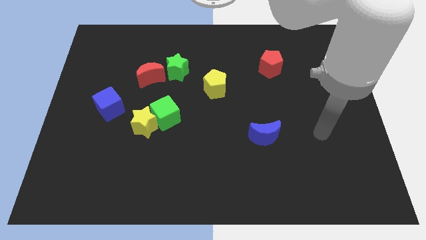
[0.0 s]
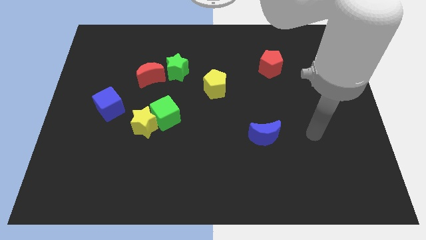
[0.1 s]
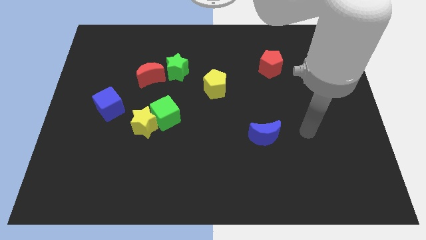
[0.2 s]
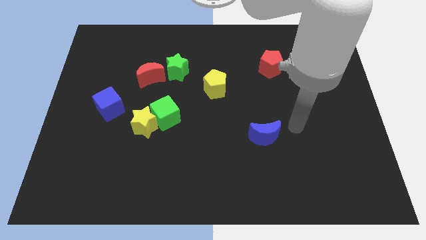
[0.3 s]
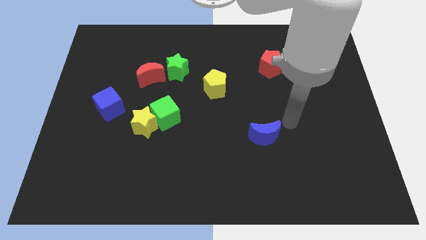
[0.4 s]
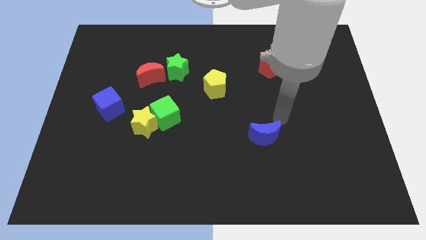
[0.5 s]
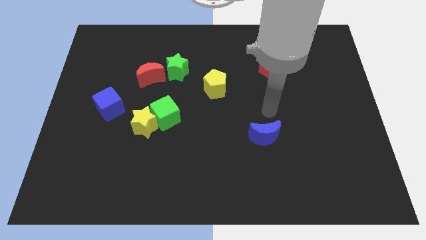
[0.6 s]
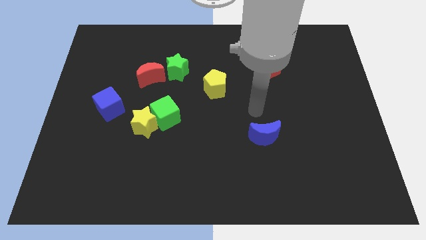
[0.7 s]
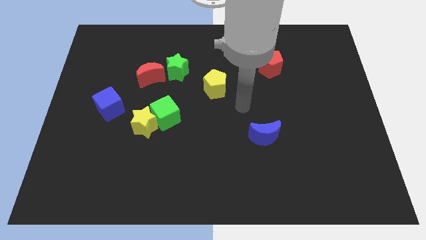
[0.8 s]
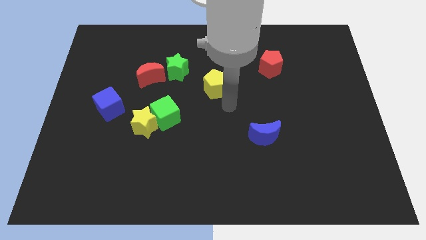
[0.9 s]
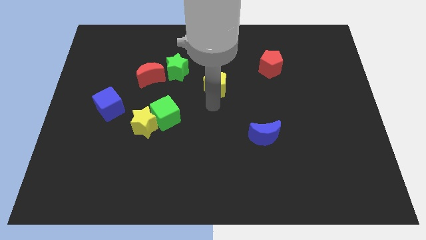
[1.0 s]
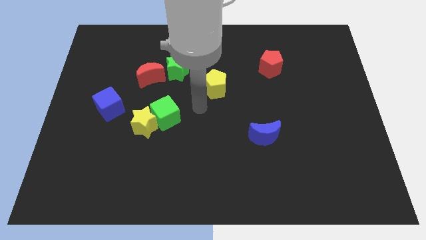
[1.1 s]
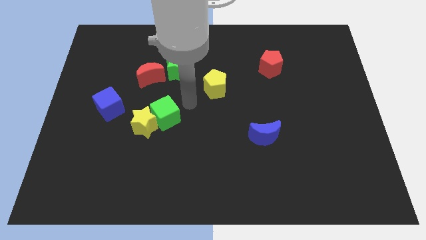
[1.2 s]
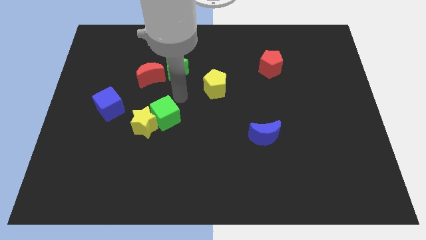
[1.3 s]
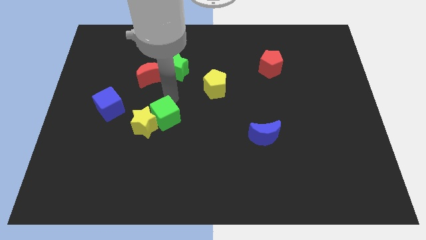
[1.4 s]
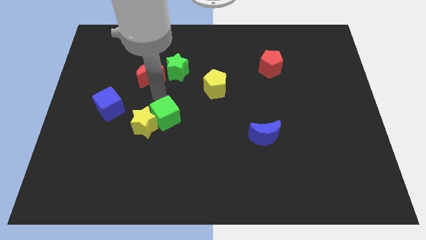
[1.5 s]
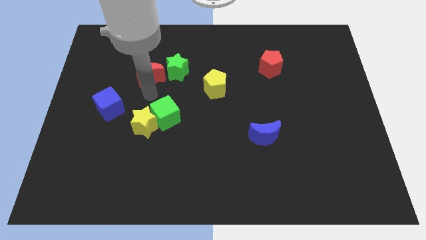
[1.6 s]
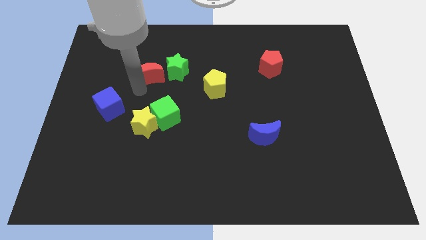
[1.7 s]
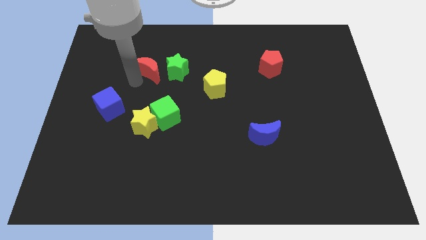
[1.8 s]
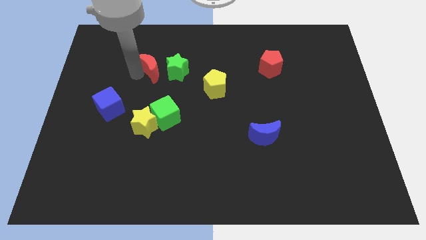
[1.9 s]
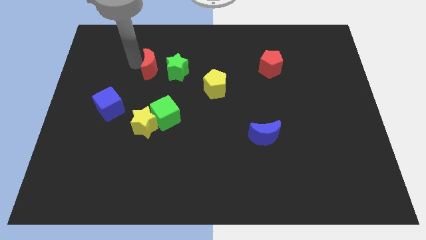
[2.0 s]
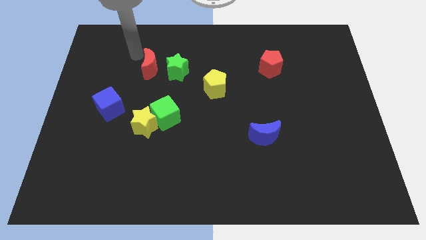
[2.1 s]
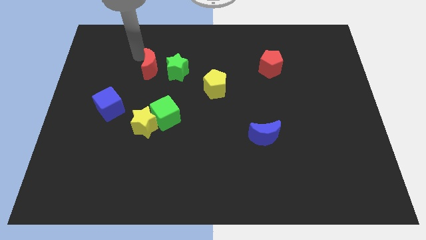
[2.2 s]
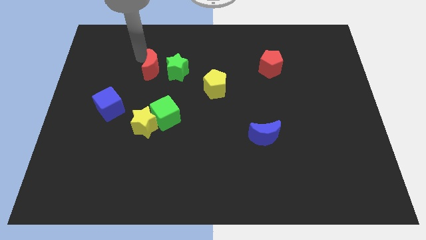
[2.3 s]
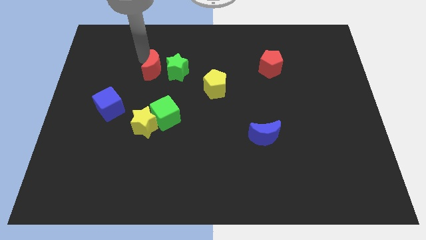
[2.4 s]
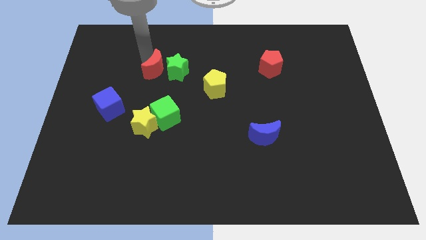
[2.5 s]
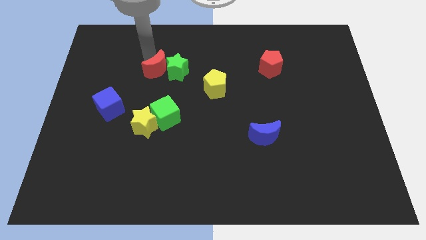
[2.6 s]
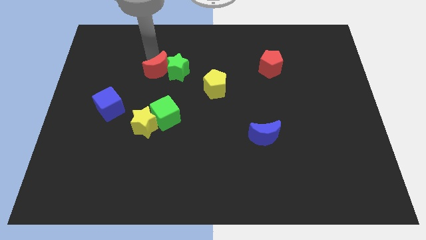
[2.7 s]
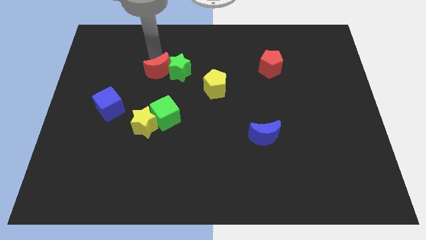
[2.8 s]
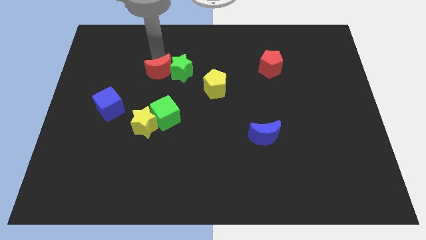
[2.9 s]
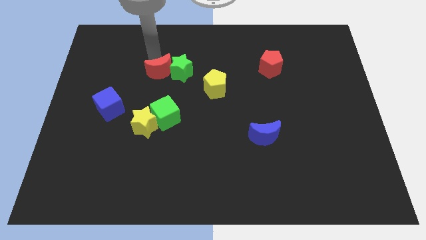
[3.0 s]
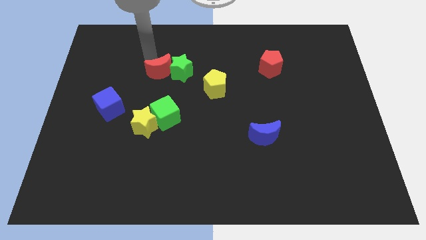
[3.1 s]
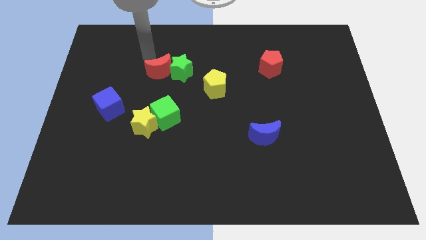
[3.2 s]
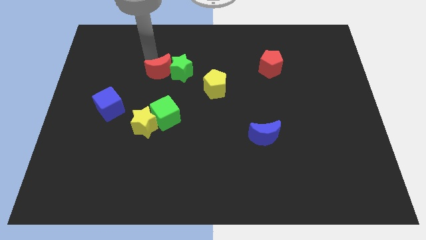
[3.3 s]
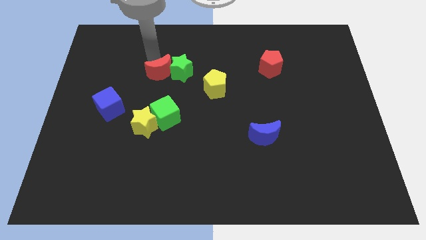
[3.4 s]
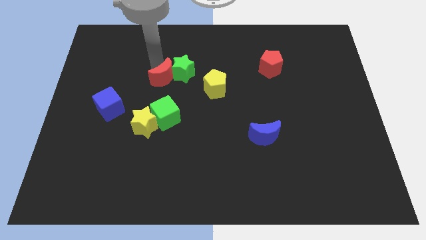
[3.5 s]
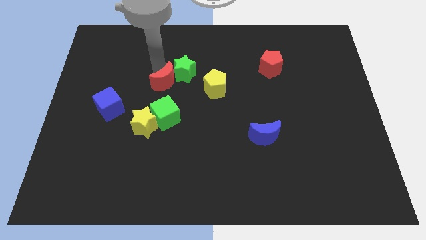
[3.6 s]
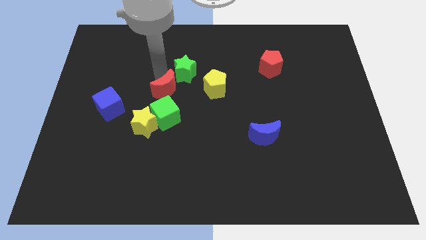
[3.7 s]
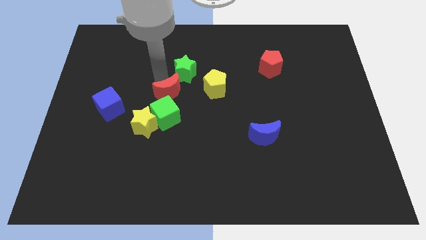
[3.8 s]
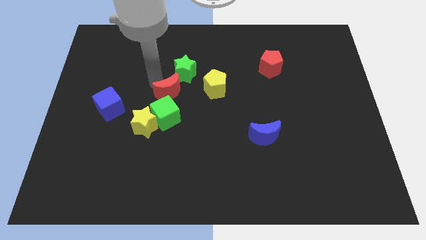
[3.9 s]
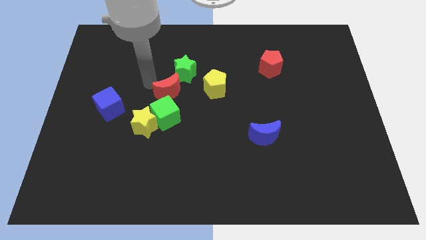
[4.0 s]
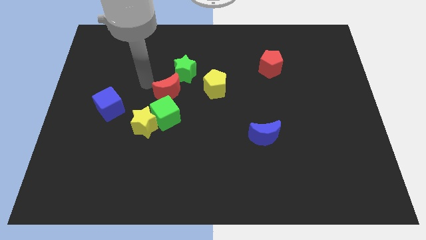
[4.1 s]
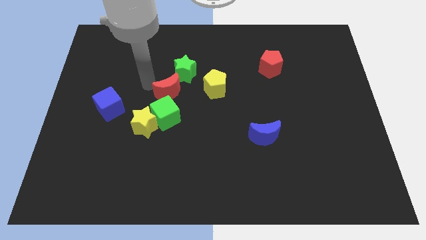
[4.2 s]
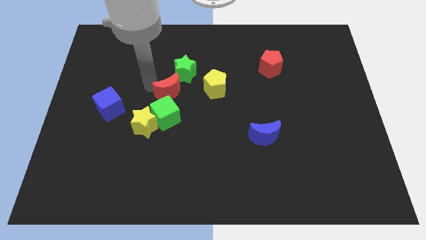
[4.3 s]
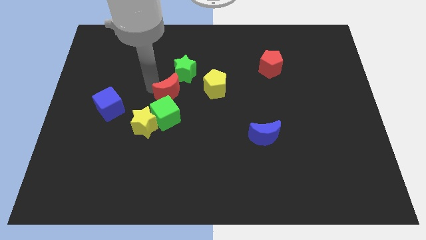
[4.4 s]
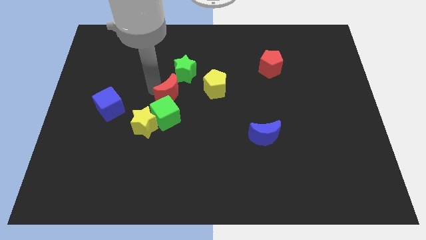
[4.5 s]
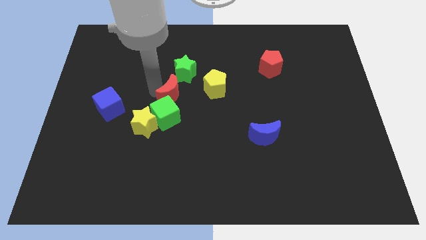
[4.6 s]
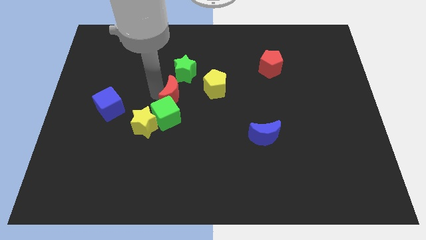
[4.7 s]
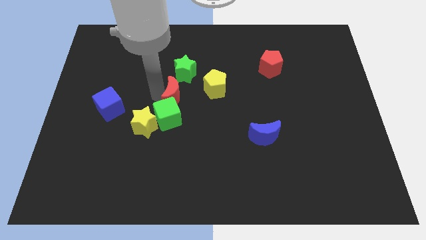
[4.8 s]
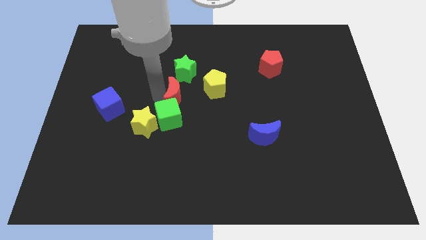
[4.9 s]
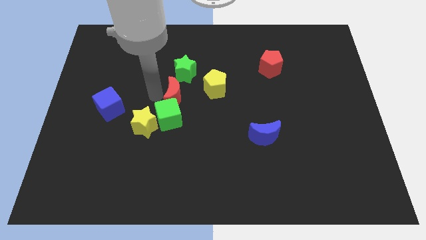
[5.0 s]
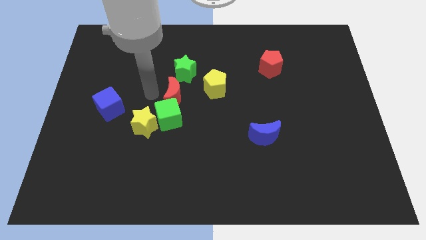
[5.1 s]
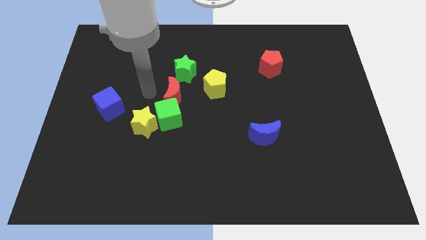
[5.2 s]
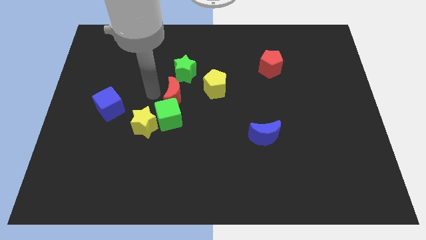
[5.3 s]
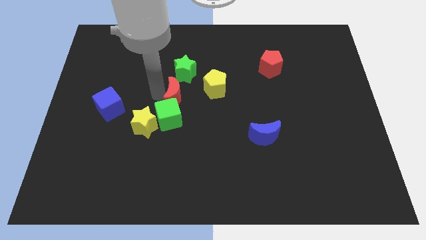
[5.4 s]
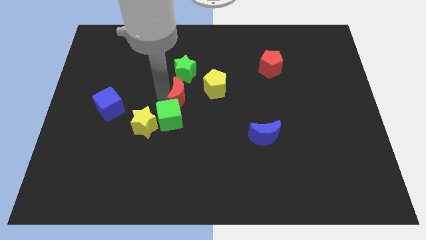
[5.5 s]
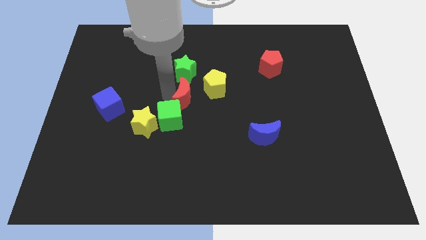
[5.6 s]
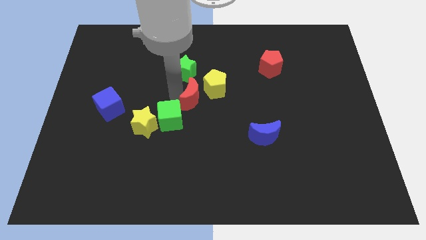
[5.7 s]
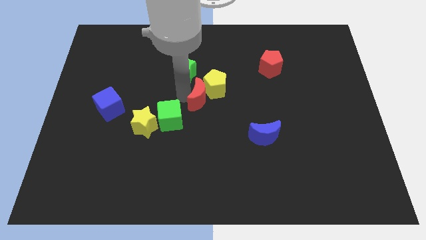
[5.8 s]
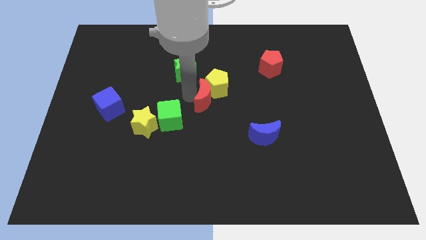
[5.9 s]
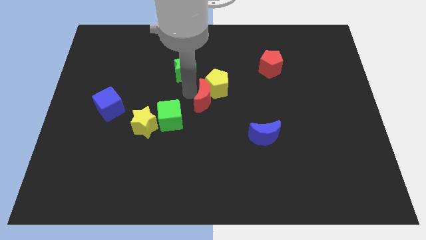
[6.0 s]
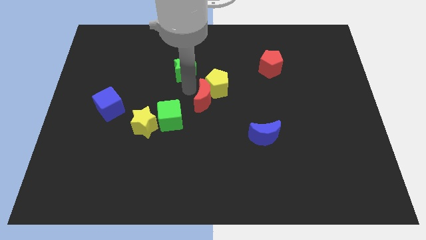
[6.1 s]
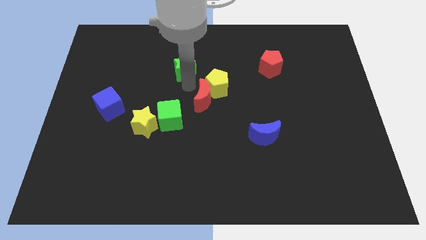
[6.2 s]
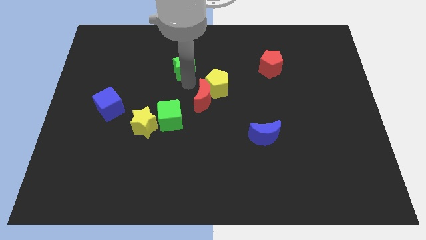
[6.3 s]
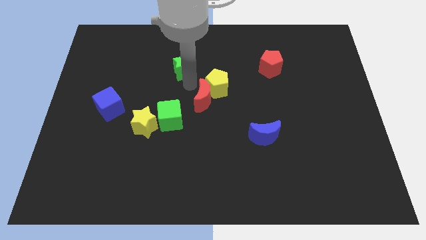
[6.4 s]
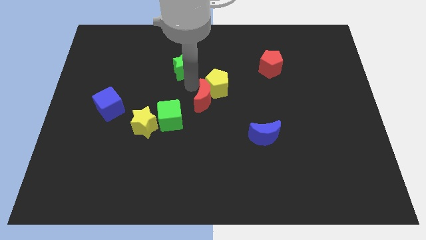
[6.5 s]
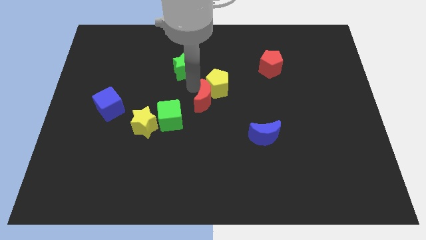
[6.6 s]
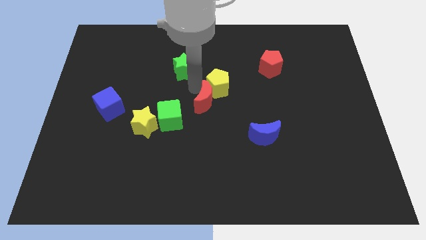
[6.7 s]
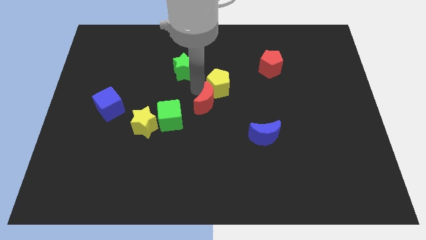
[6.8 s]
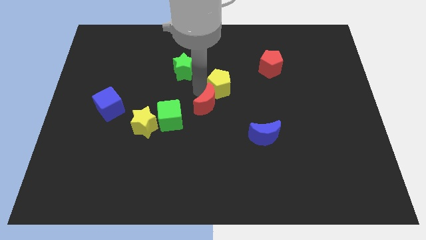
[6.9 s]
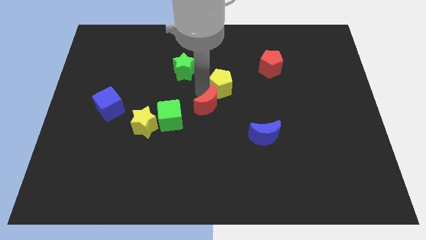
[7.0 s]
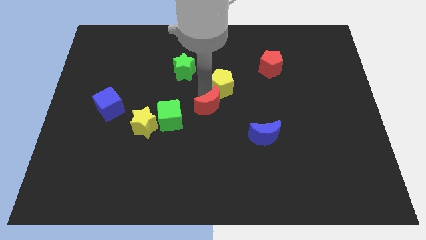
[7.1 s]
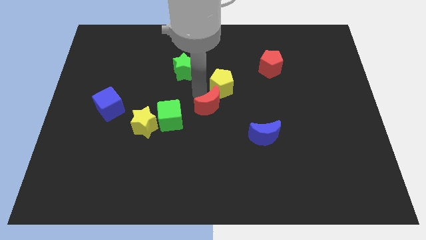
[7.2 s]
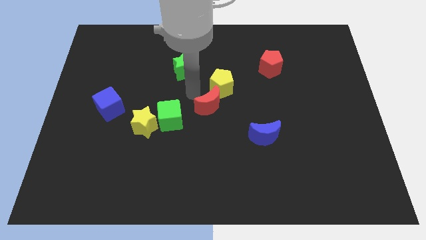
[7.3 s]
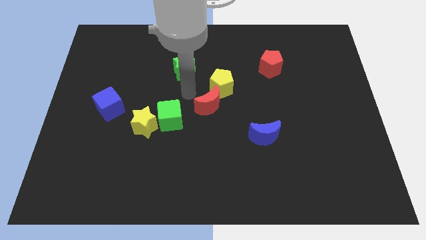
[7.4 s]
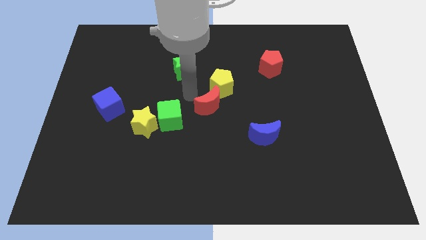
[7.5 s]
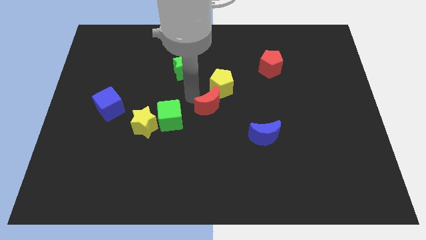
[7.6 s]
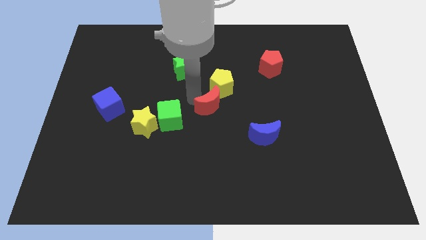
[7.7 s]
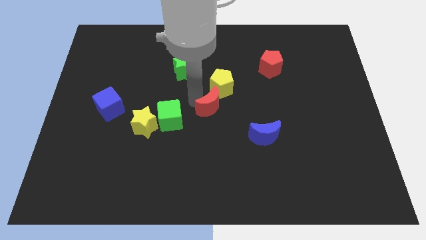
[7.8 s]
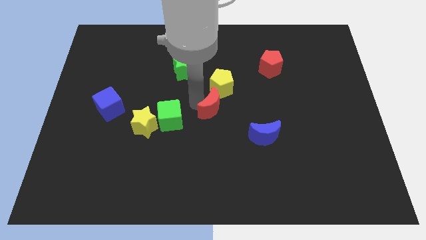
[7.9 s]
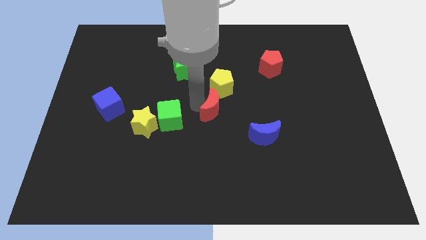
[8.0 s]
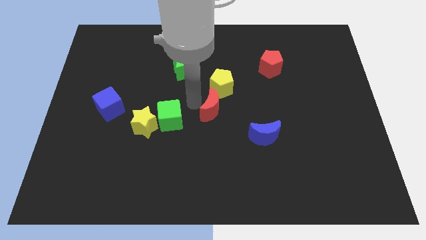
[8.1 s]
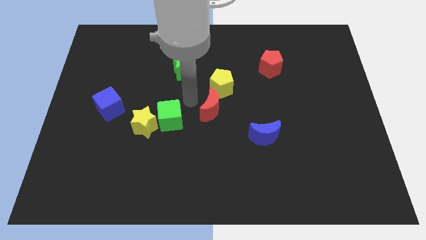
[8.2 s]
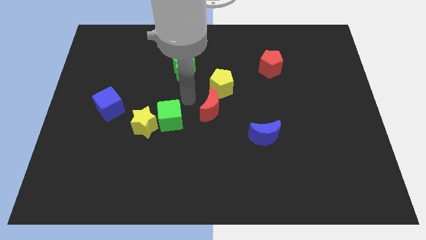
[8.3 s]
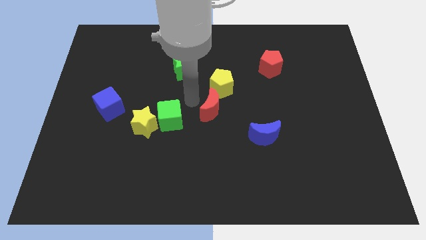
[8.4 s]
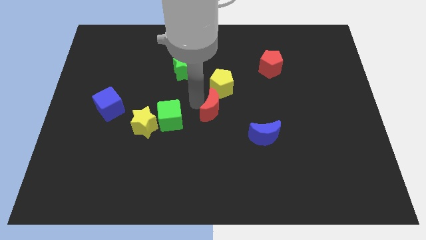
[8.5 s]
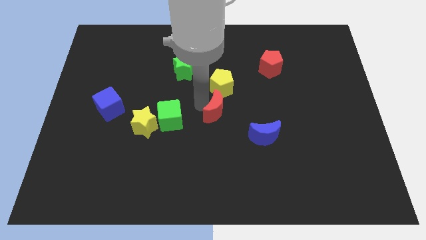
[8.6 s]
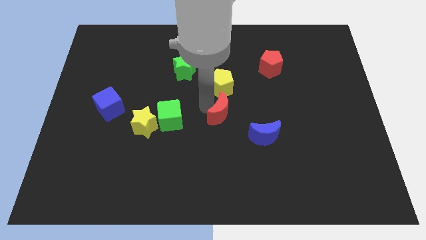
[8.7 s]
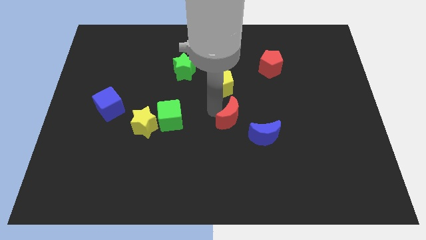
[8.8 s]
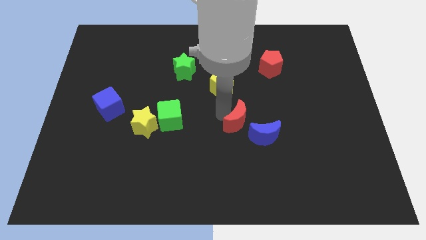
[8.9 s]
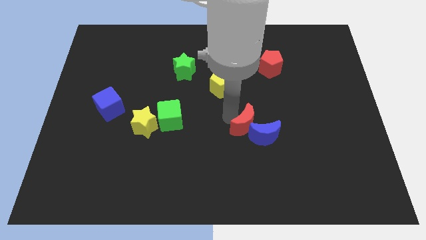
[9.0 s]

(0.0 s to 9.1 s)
move the red moon to the blue moon
